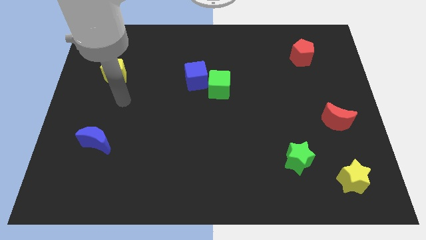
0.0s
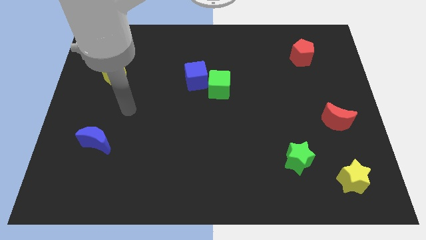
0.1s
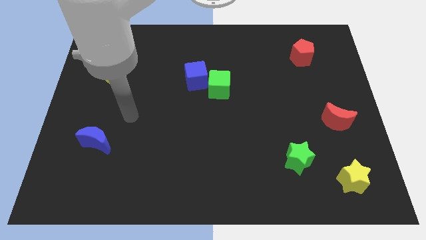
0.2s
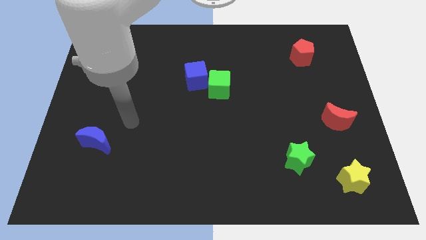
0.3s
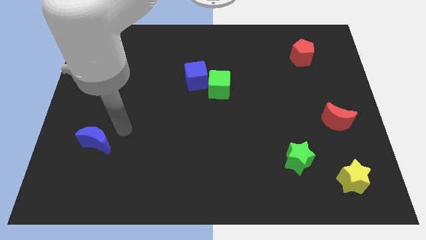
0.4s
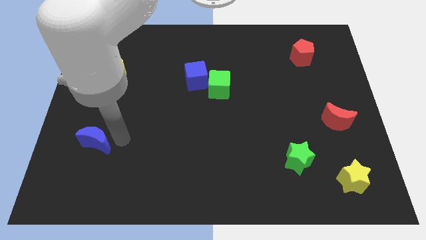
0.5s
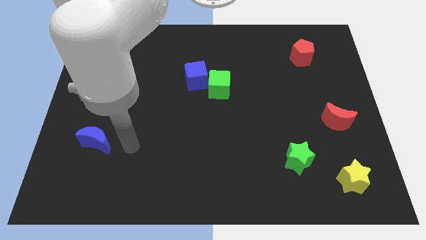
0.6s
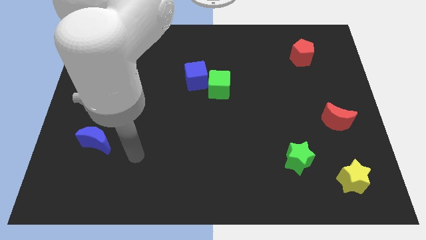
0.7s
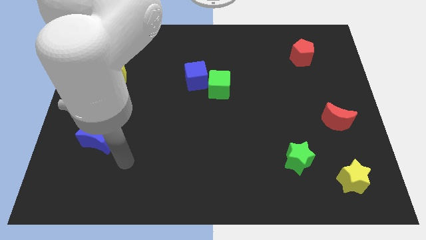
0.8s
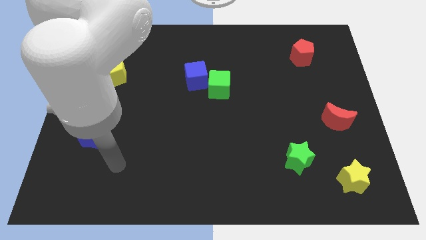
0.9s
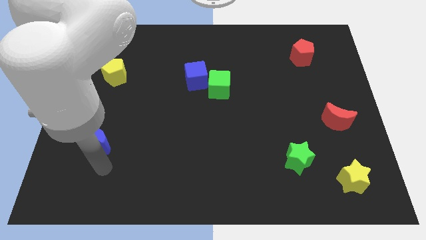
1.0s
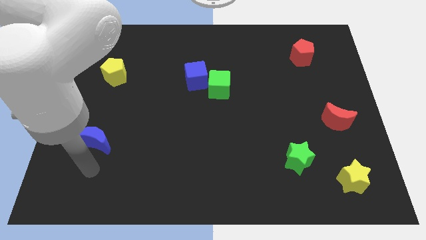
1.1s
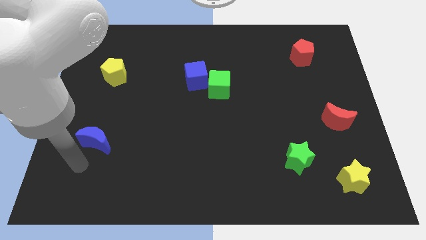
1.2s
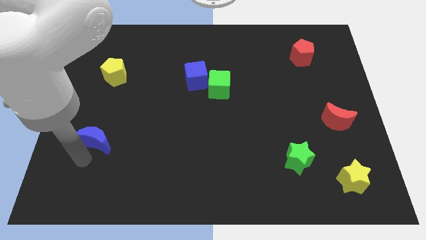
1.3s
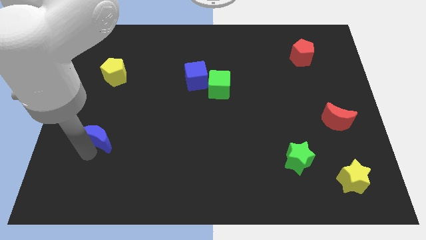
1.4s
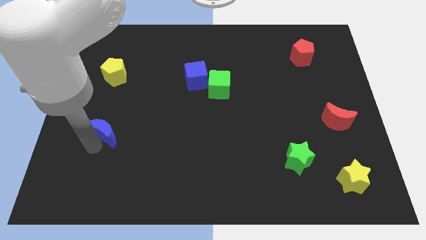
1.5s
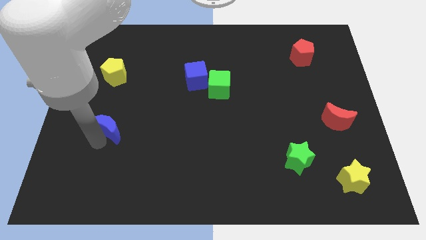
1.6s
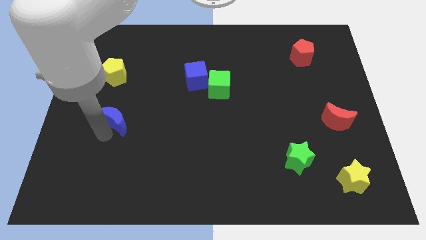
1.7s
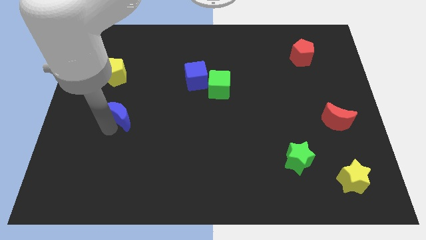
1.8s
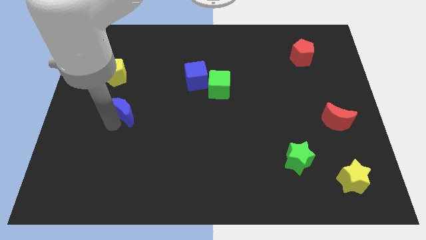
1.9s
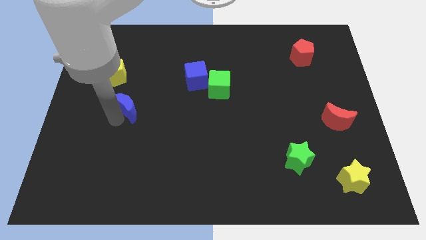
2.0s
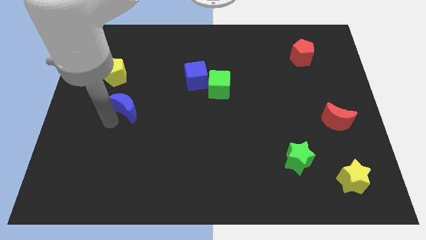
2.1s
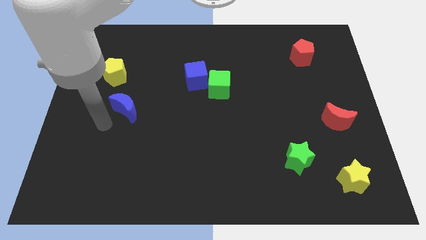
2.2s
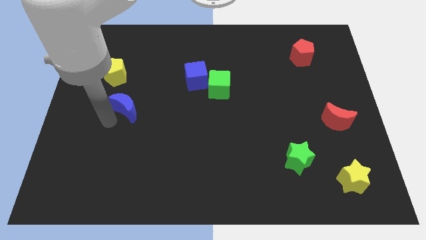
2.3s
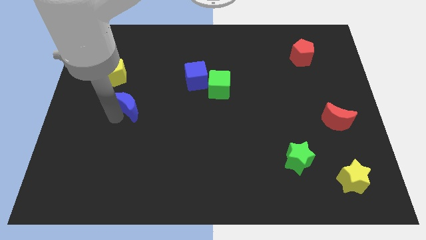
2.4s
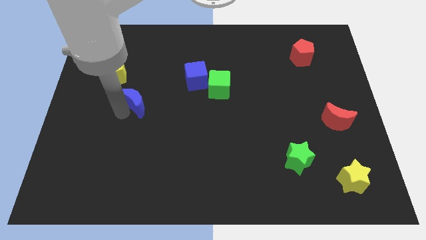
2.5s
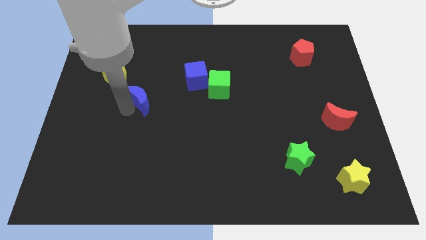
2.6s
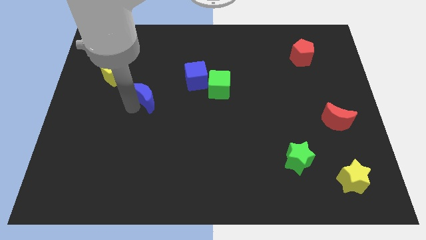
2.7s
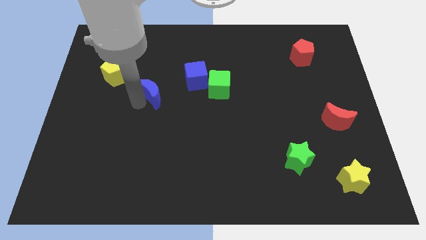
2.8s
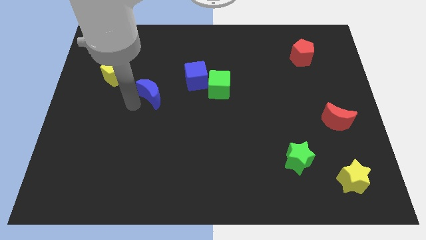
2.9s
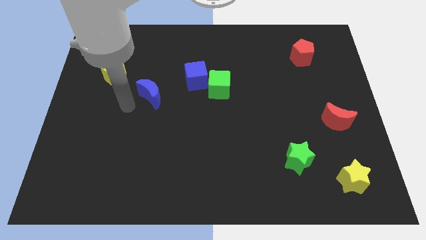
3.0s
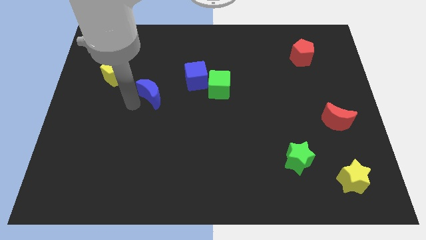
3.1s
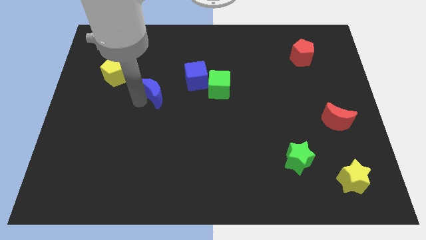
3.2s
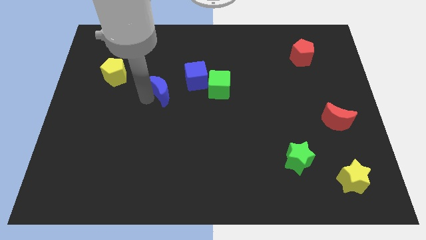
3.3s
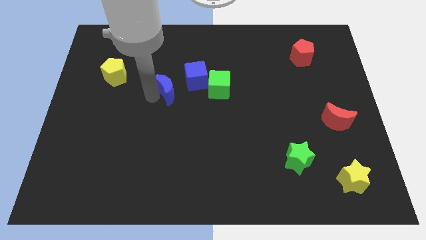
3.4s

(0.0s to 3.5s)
move the blue moon diagonally upwards and right

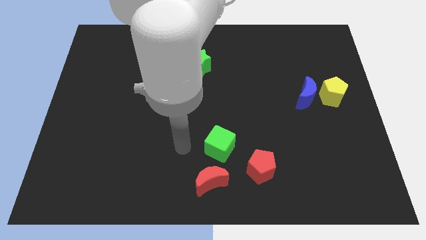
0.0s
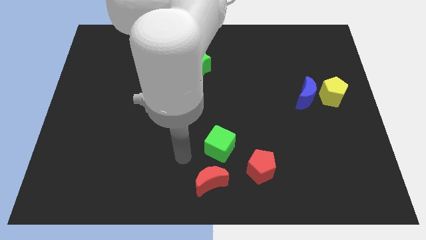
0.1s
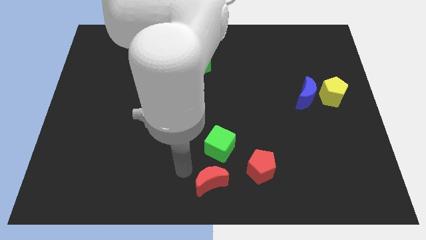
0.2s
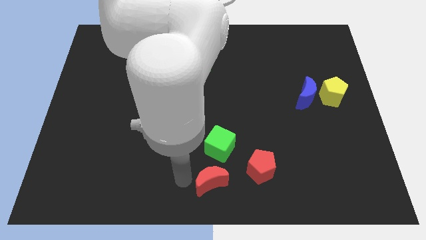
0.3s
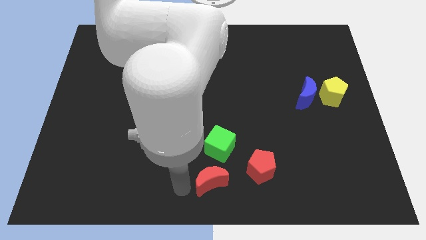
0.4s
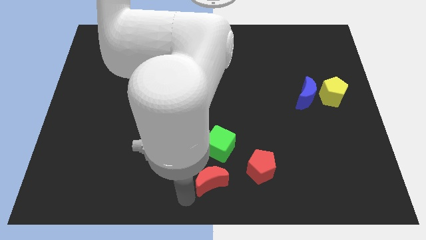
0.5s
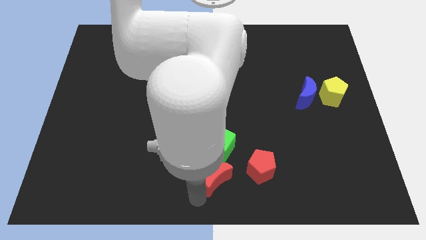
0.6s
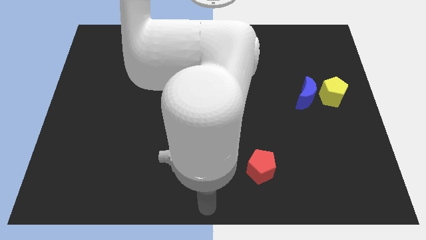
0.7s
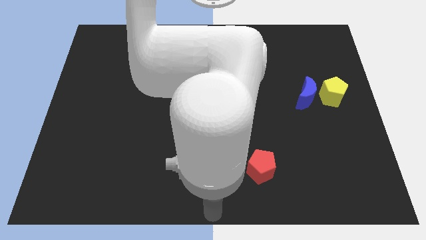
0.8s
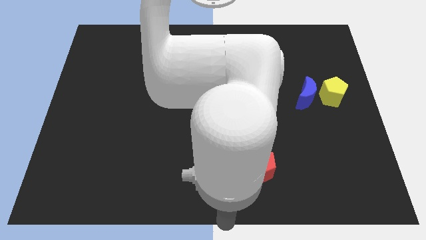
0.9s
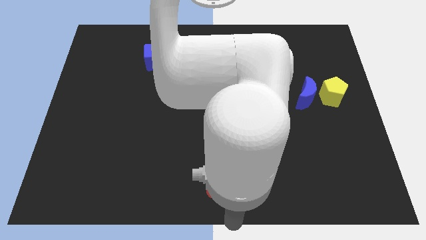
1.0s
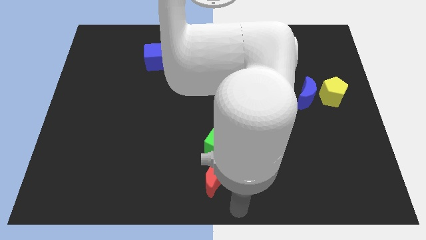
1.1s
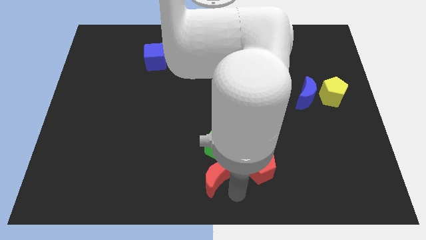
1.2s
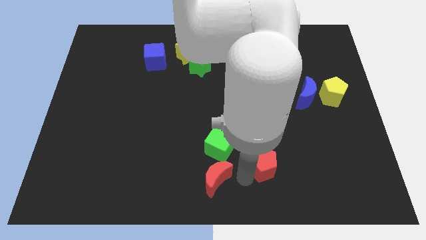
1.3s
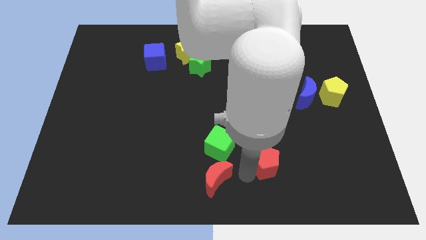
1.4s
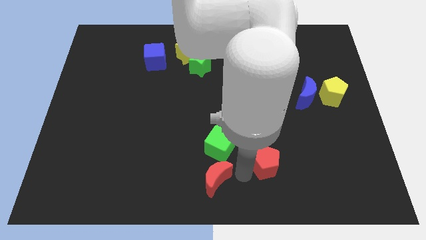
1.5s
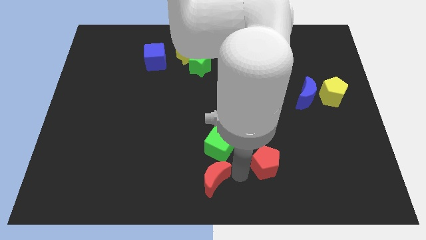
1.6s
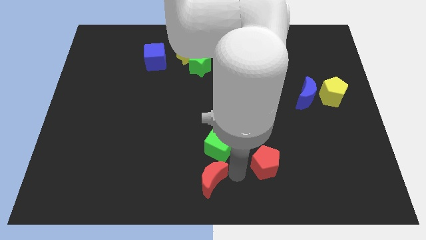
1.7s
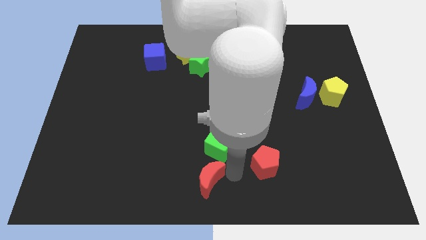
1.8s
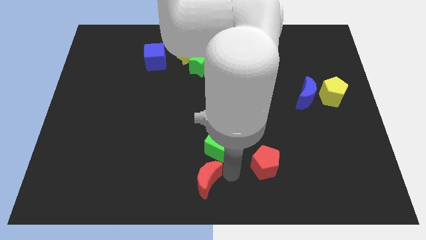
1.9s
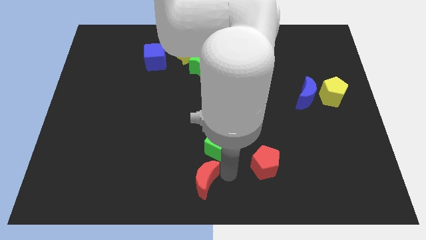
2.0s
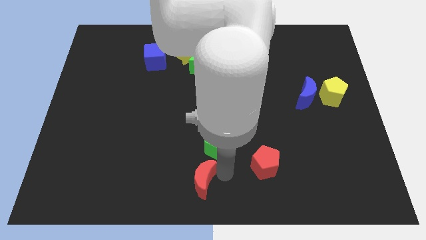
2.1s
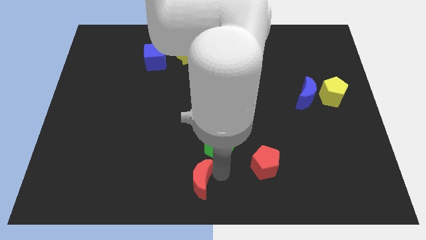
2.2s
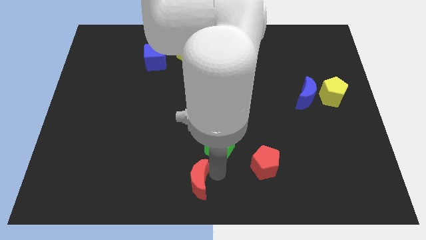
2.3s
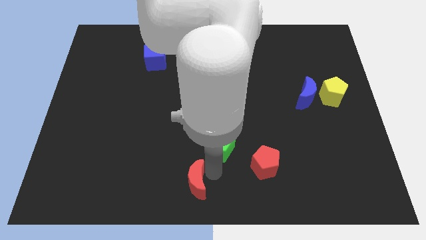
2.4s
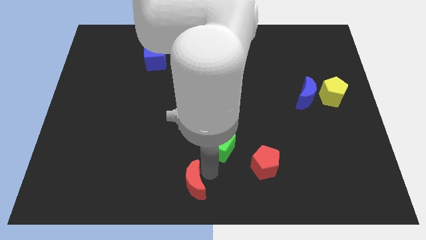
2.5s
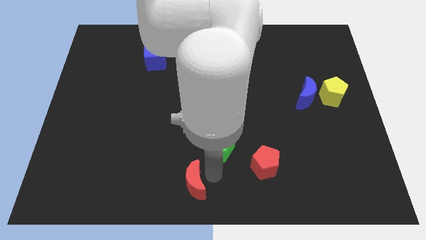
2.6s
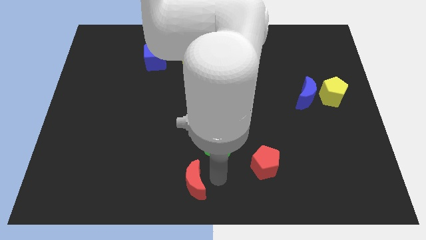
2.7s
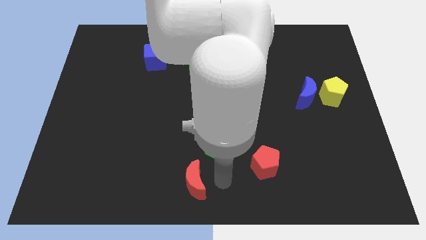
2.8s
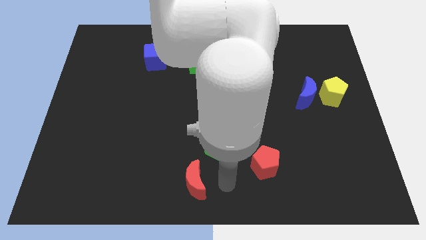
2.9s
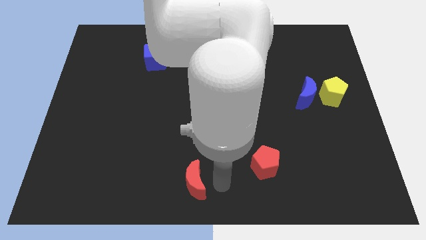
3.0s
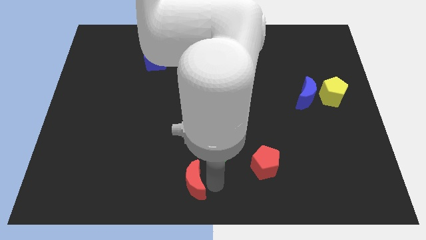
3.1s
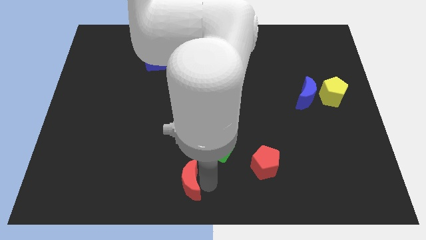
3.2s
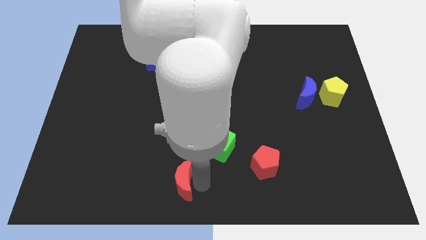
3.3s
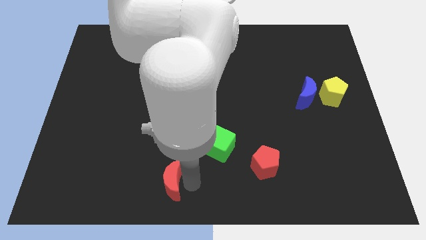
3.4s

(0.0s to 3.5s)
slightly move the red moon to the left

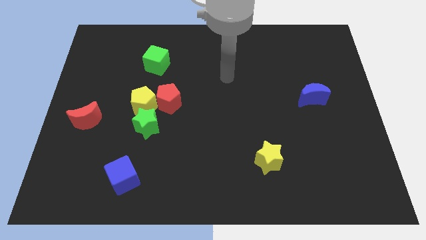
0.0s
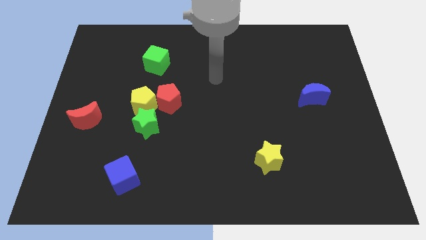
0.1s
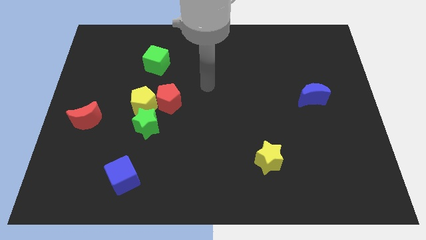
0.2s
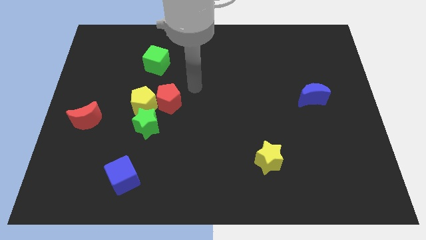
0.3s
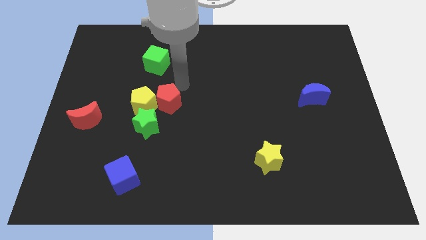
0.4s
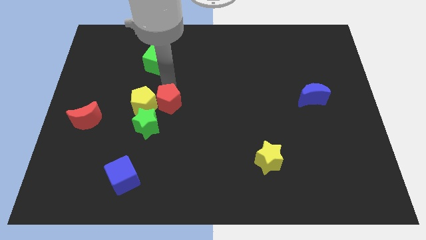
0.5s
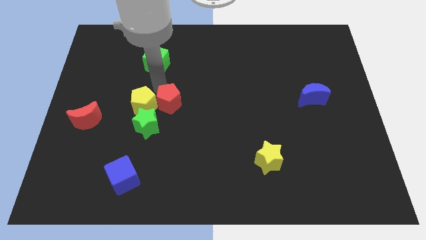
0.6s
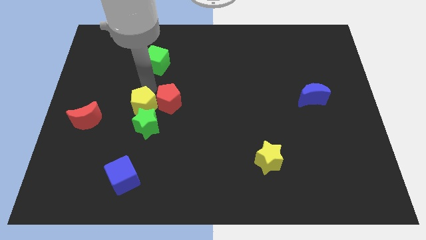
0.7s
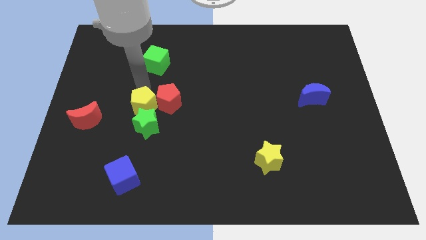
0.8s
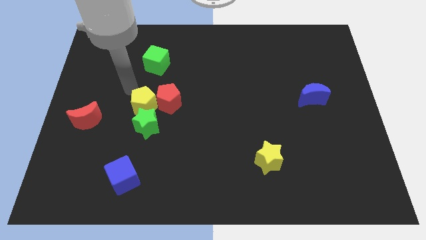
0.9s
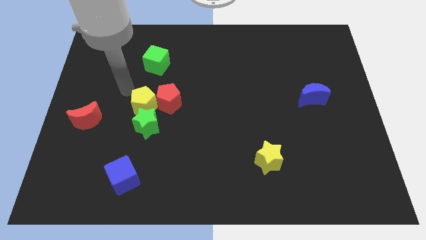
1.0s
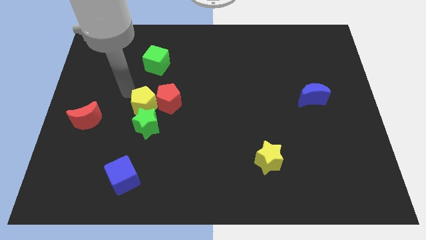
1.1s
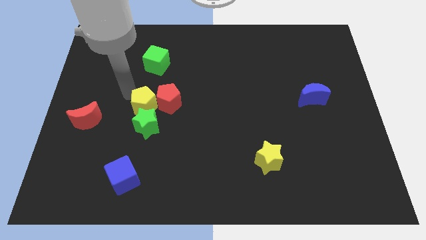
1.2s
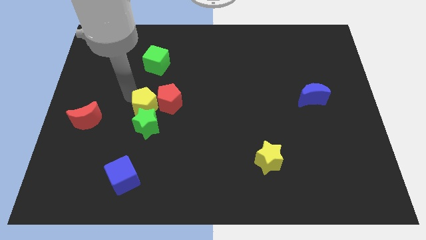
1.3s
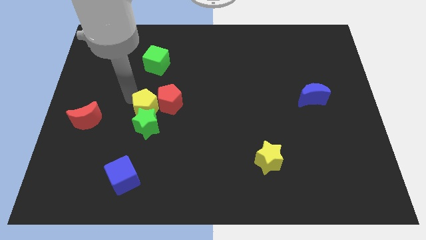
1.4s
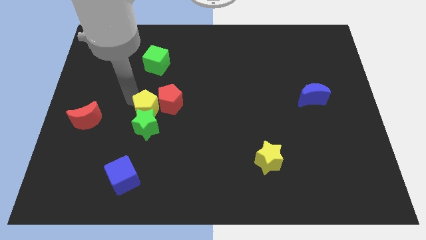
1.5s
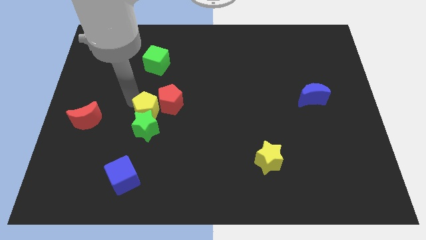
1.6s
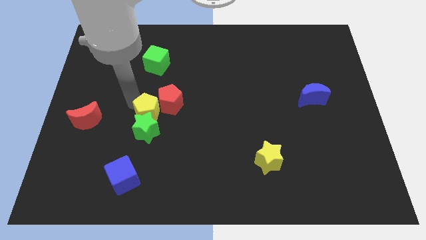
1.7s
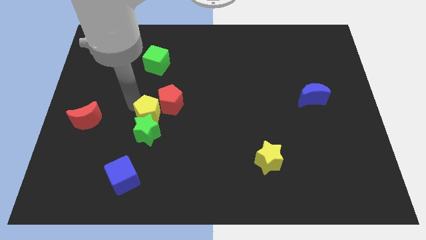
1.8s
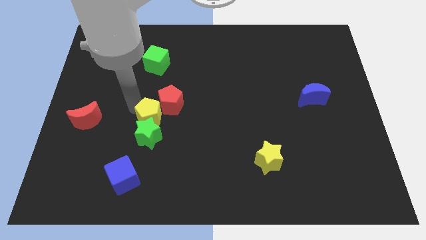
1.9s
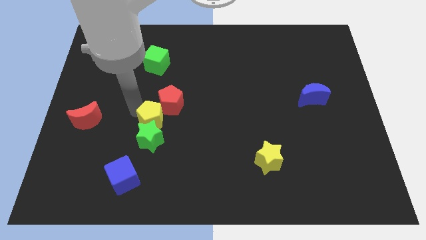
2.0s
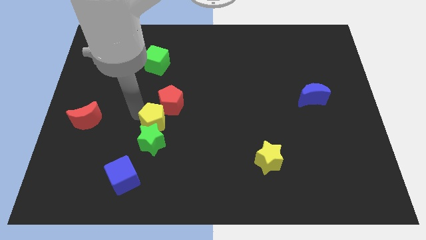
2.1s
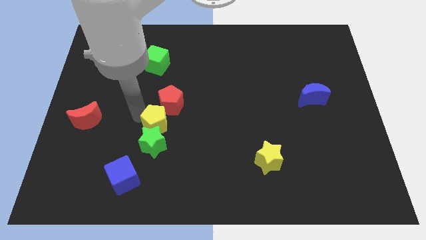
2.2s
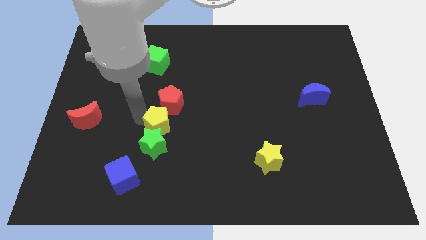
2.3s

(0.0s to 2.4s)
push the yellow pentagon a little bit downwards and to the right diagonally
